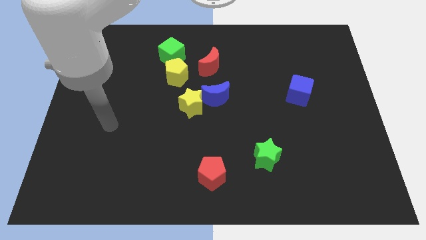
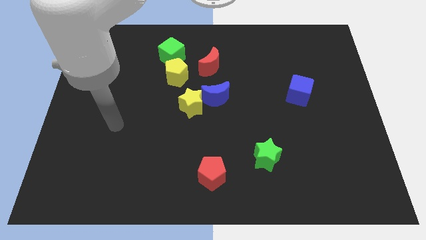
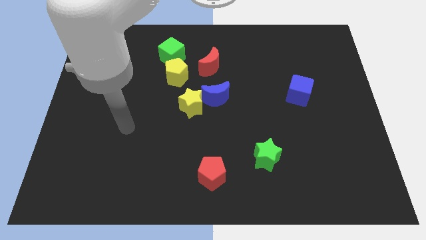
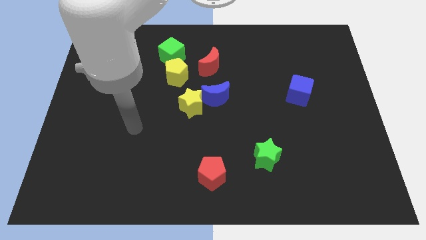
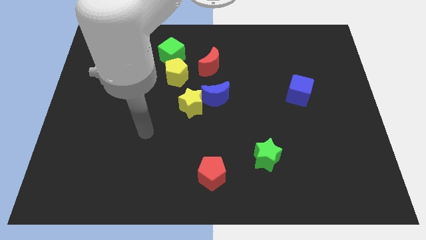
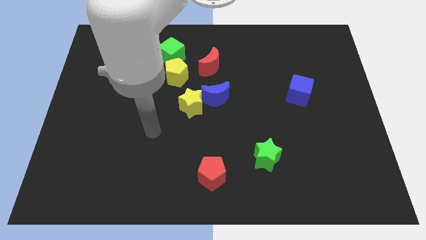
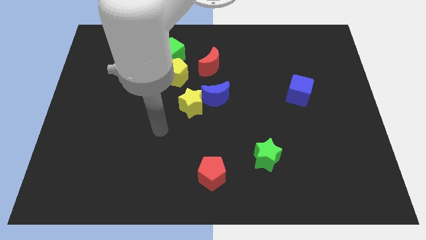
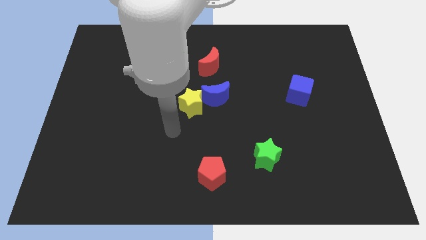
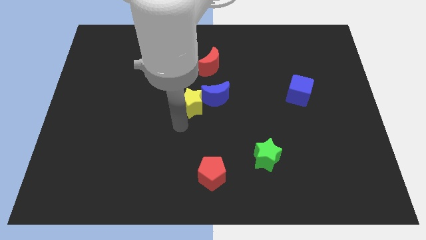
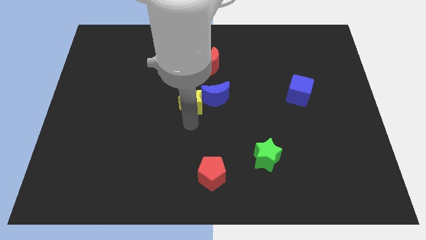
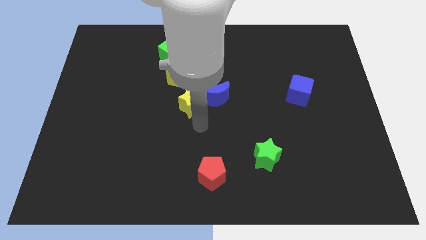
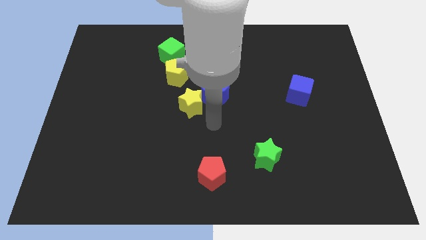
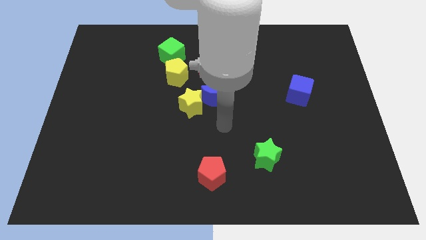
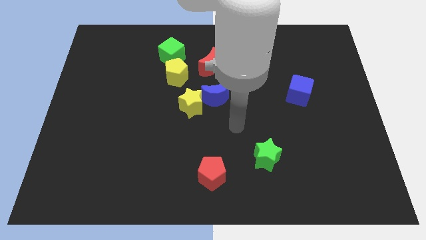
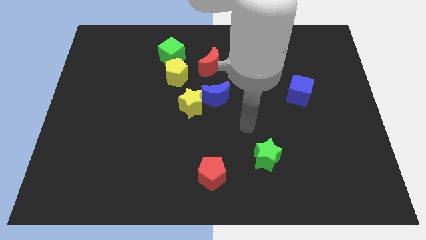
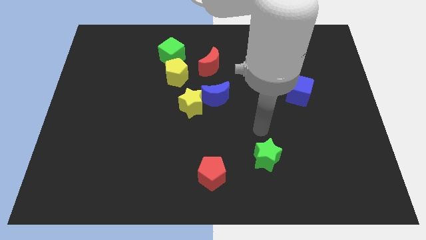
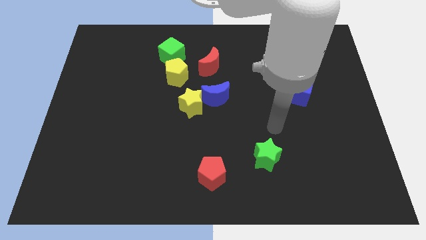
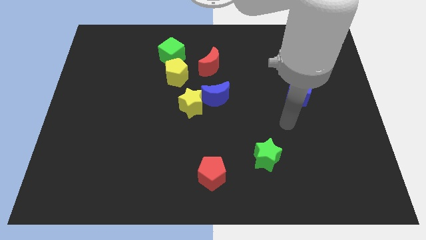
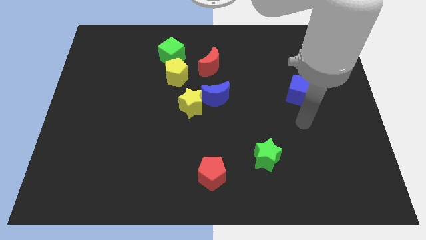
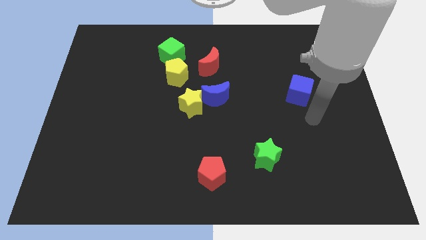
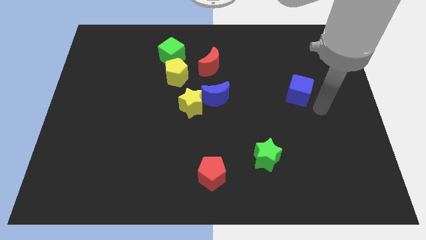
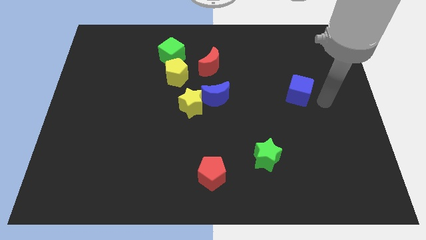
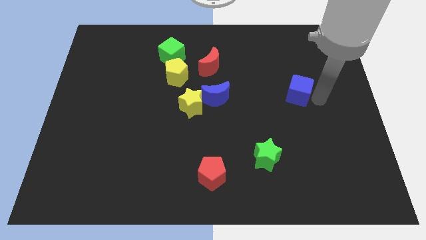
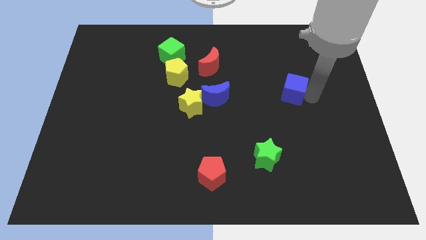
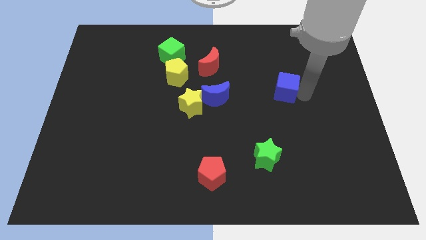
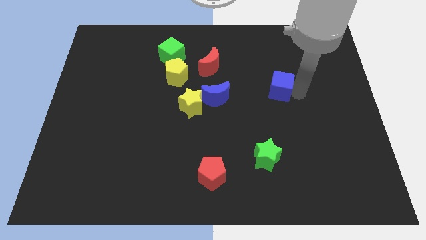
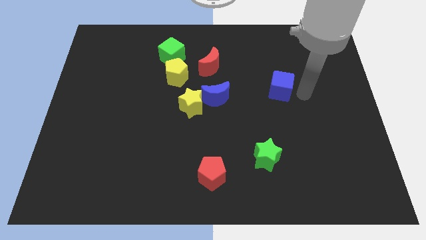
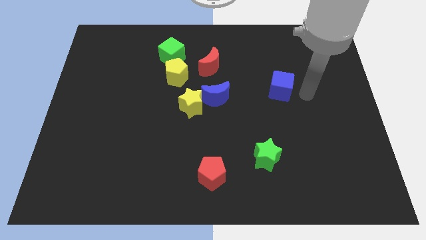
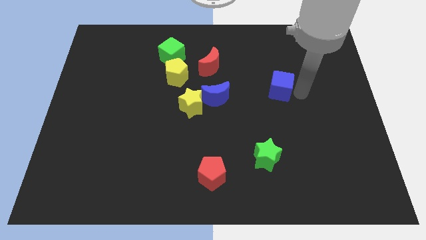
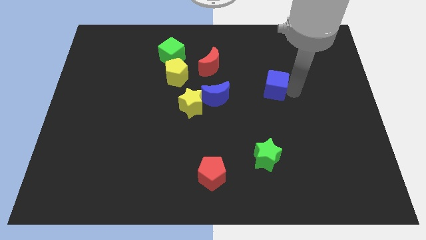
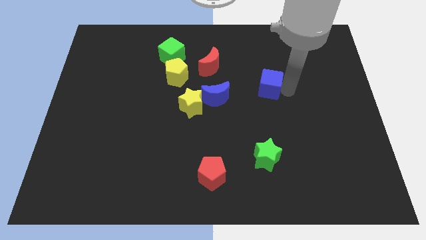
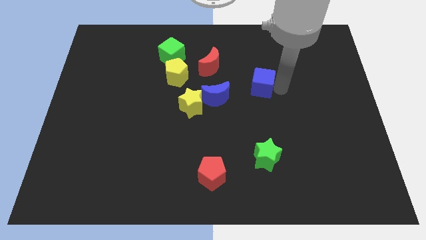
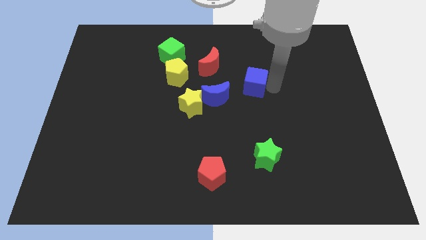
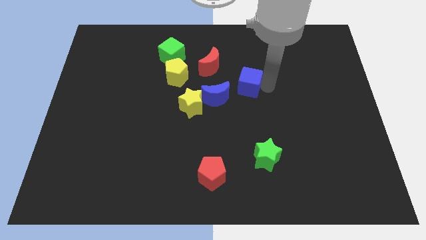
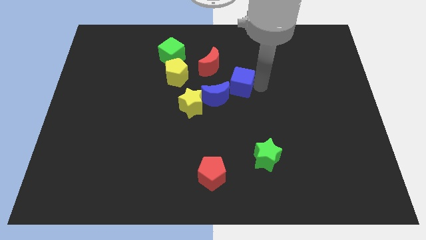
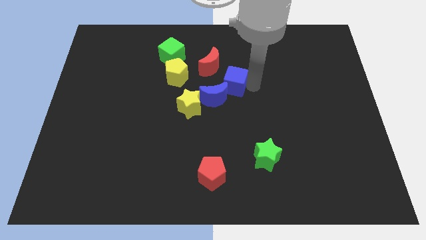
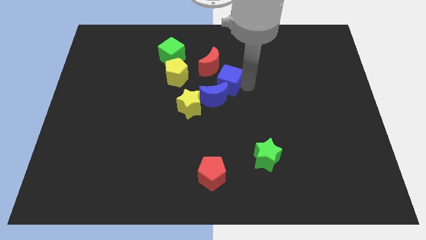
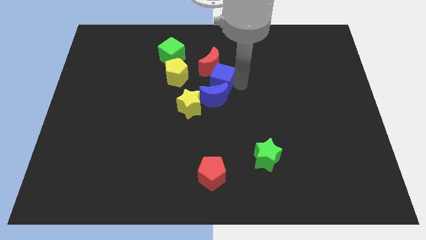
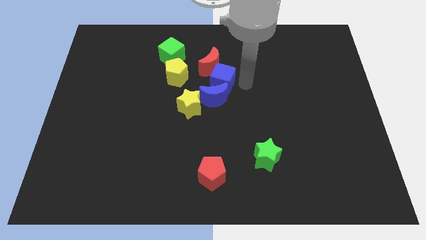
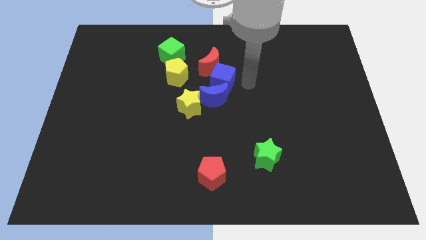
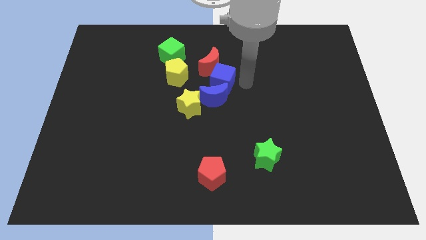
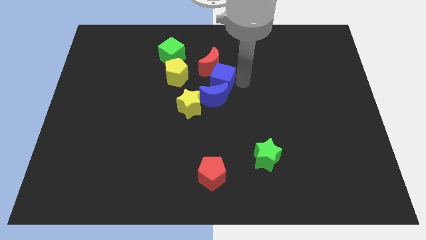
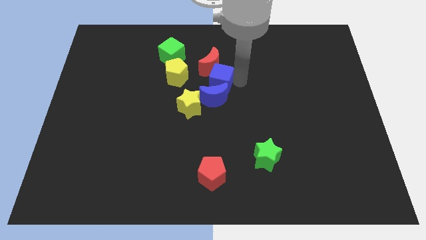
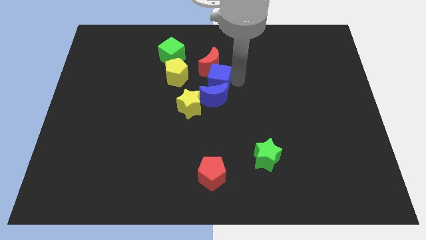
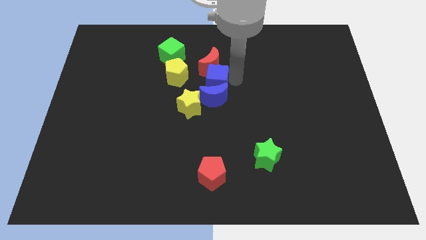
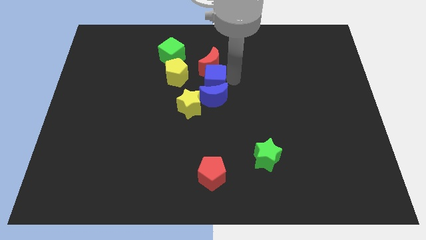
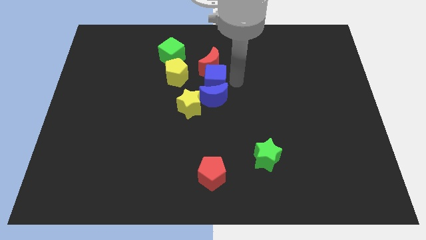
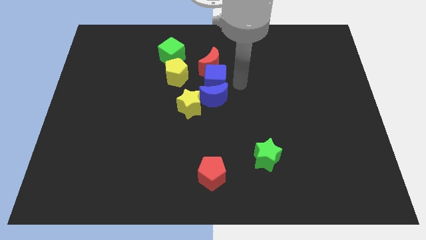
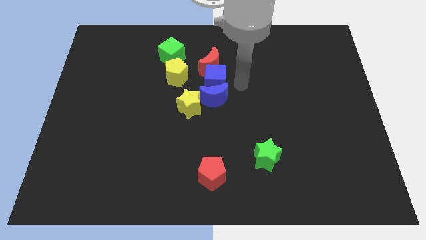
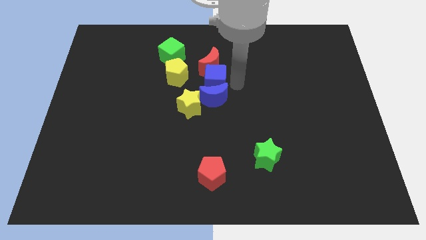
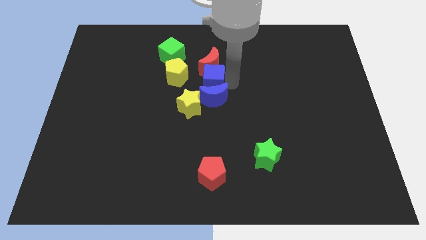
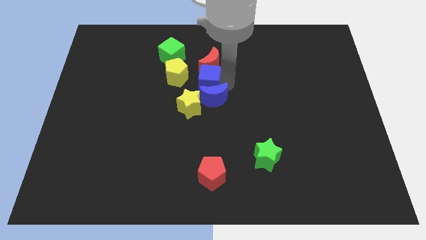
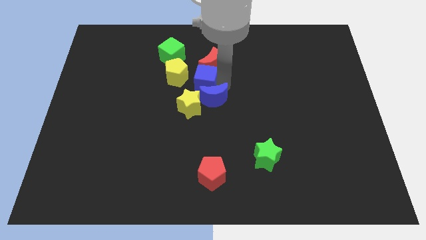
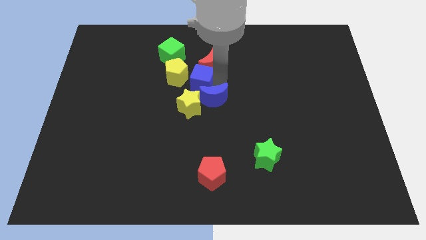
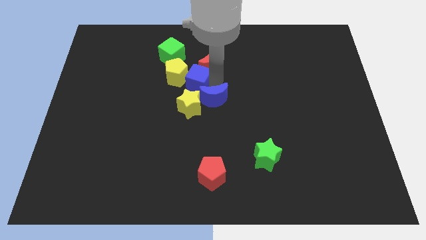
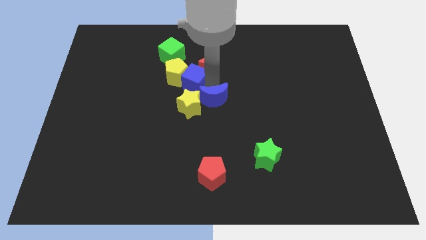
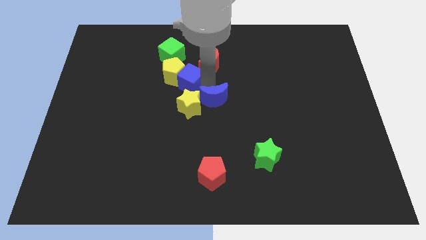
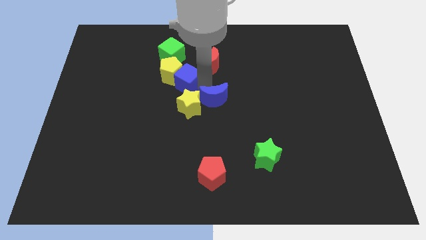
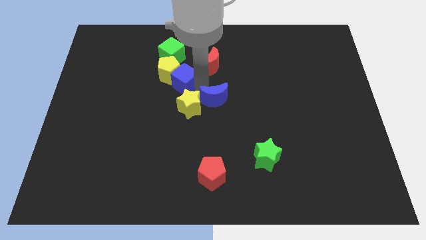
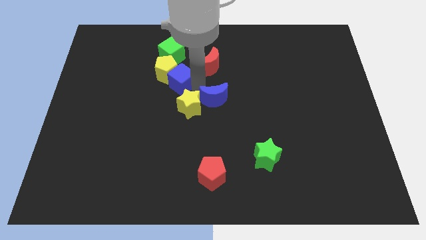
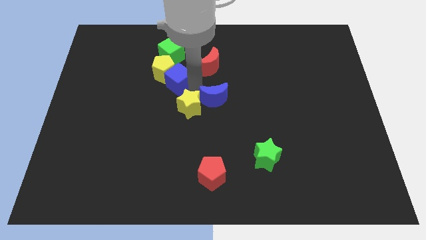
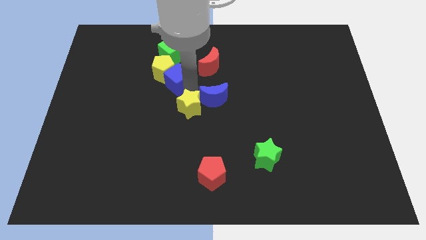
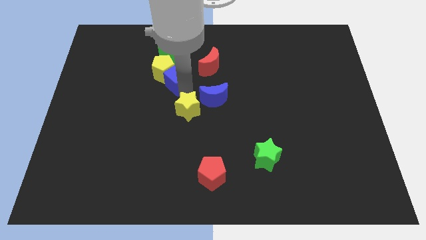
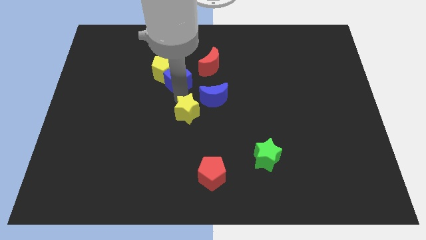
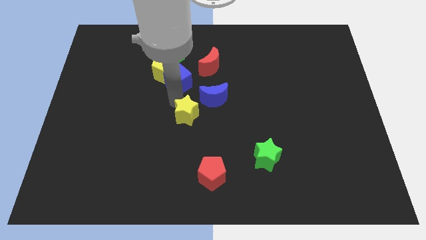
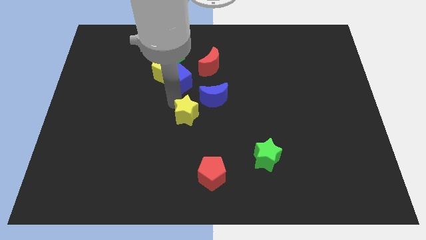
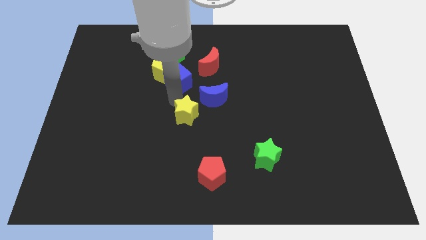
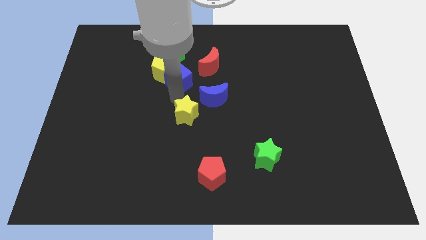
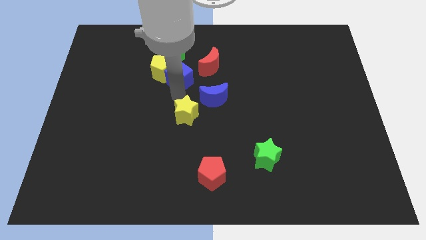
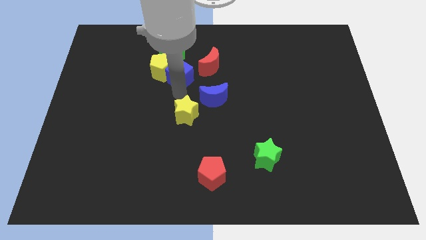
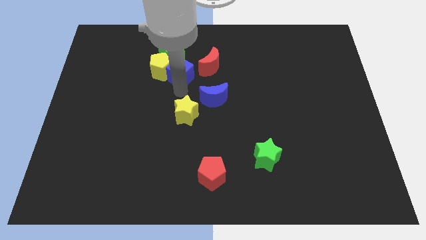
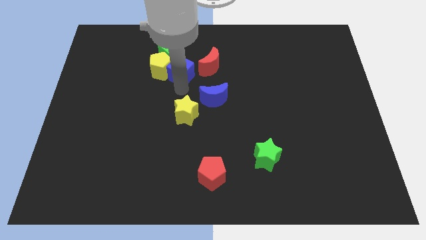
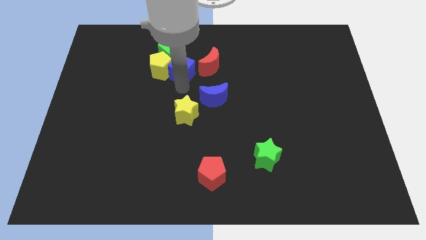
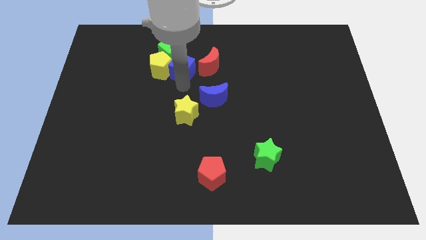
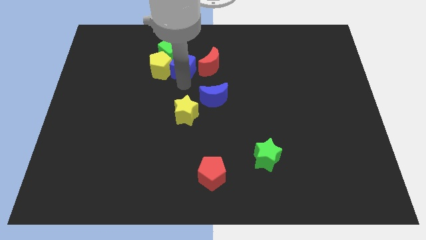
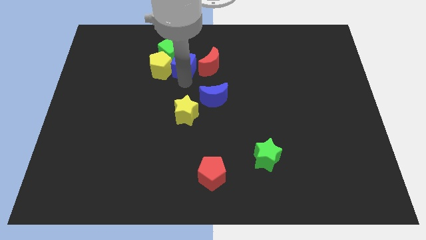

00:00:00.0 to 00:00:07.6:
slide the blue cube towards the green cube
